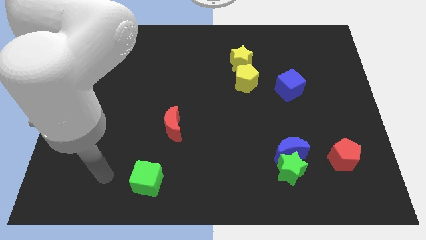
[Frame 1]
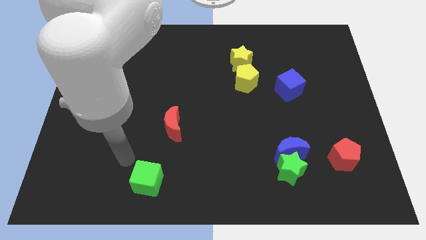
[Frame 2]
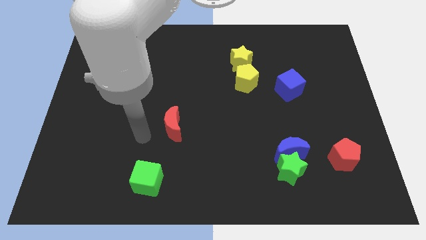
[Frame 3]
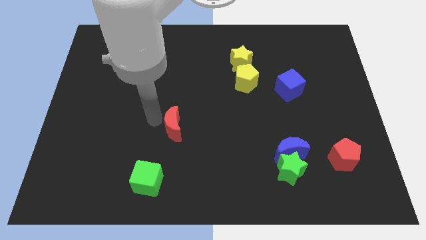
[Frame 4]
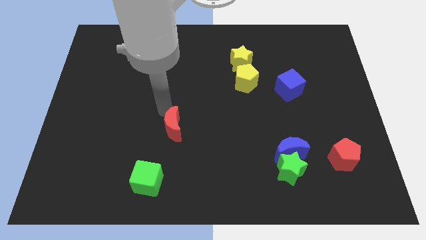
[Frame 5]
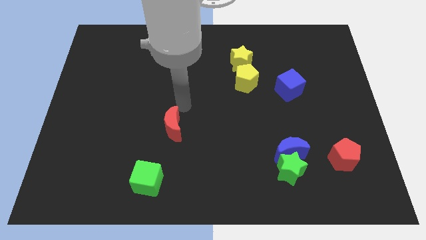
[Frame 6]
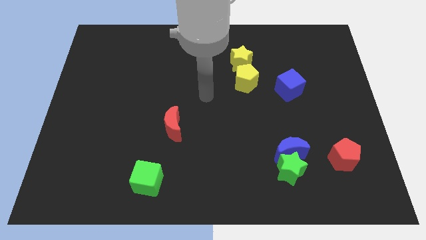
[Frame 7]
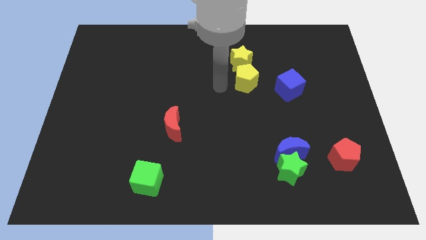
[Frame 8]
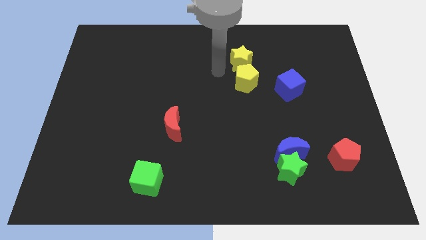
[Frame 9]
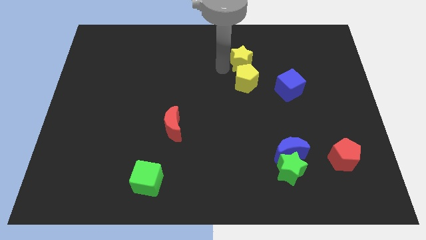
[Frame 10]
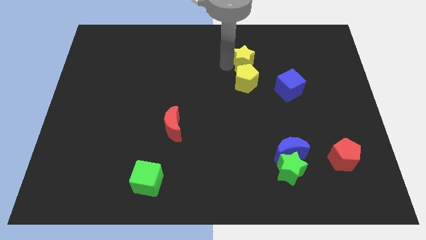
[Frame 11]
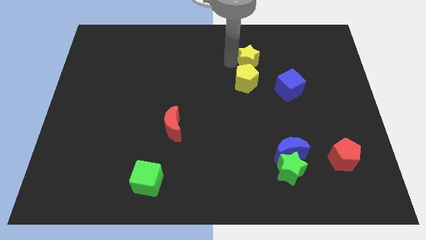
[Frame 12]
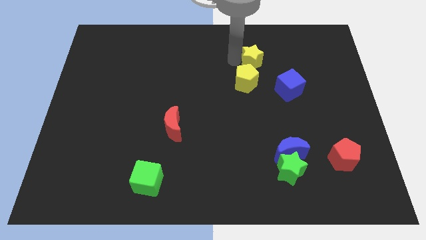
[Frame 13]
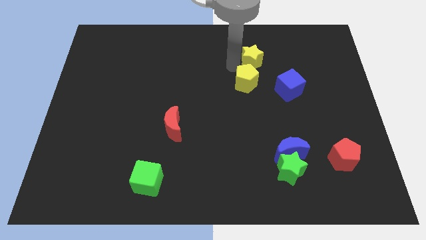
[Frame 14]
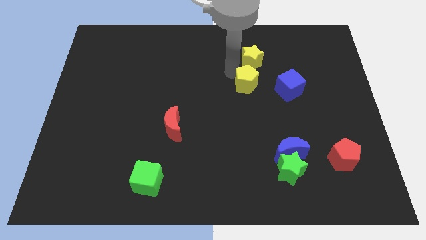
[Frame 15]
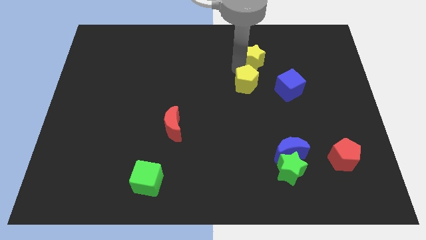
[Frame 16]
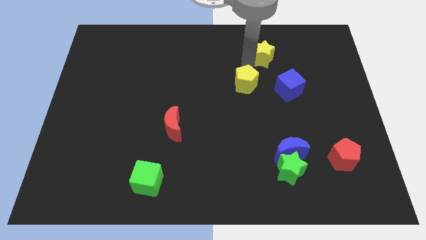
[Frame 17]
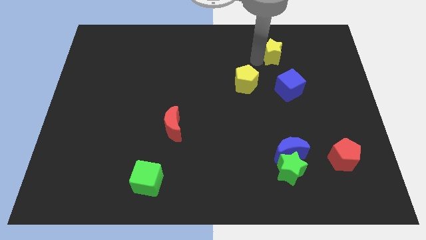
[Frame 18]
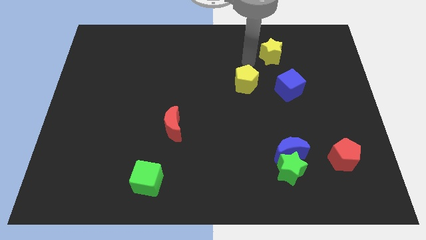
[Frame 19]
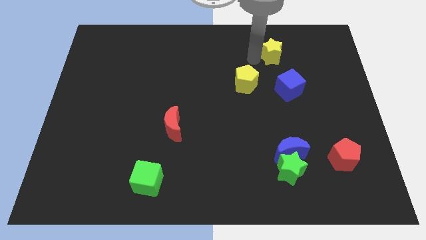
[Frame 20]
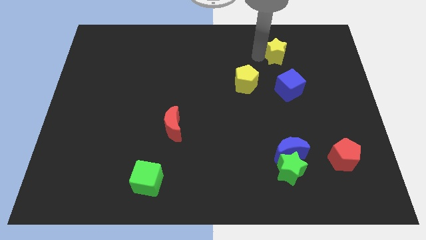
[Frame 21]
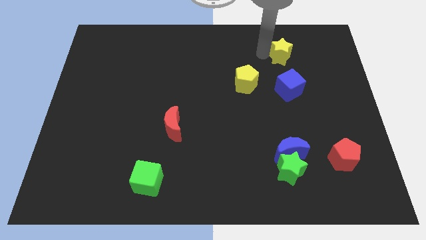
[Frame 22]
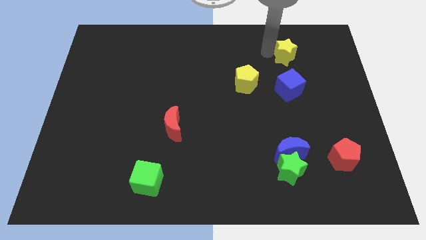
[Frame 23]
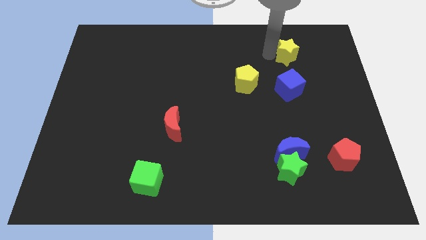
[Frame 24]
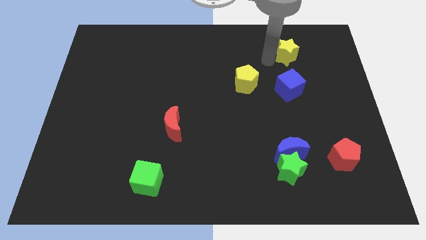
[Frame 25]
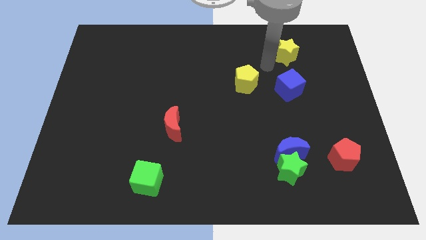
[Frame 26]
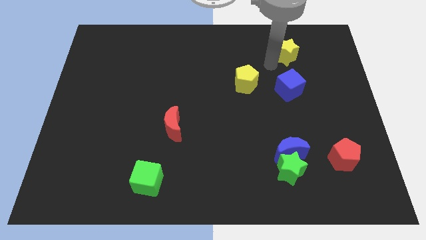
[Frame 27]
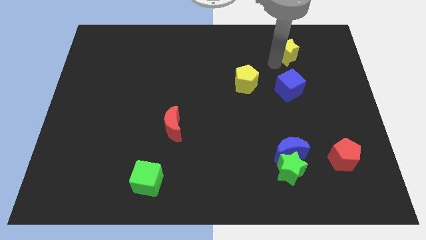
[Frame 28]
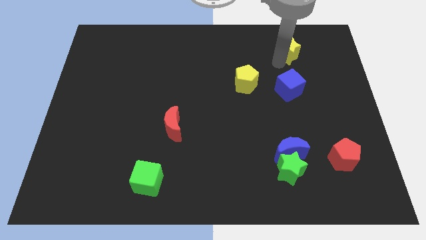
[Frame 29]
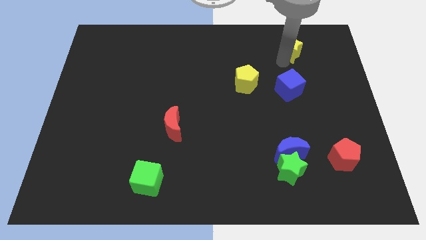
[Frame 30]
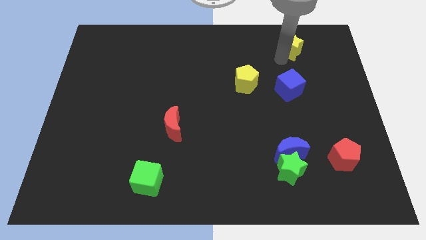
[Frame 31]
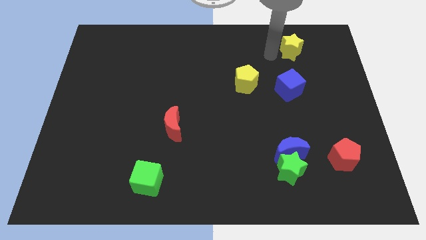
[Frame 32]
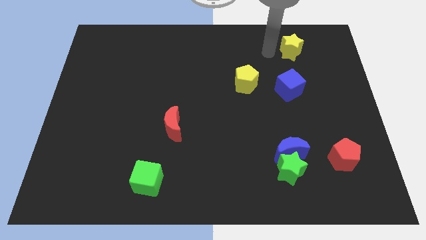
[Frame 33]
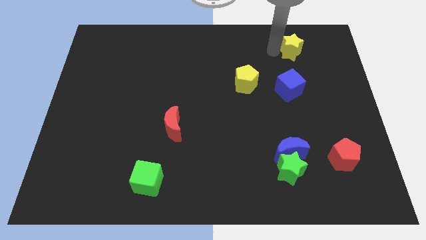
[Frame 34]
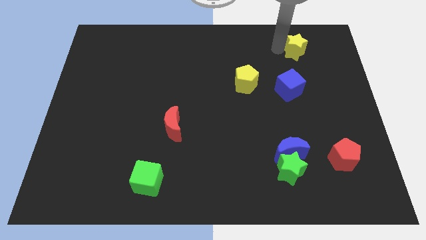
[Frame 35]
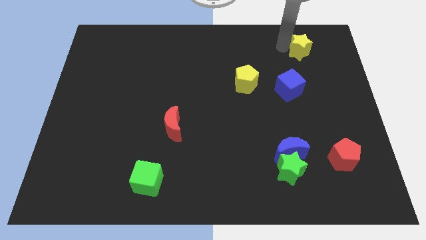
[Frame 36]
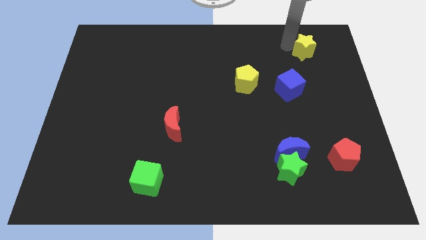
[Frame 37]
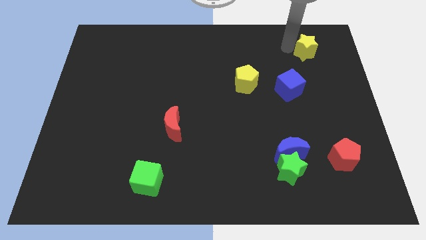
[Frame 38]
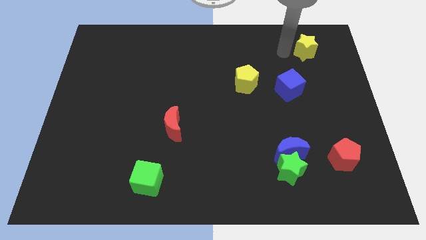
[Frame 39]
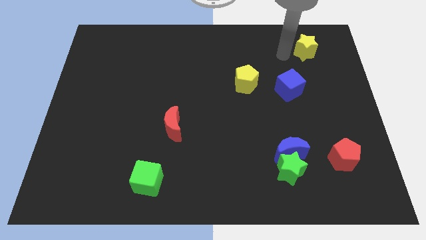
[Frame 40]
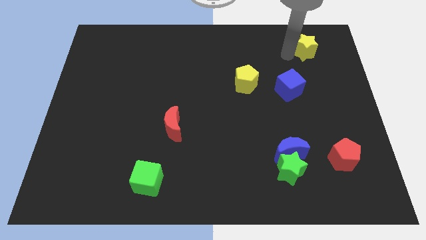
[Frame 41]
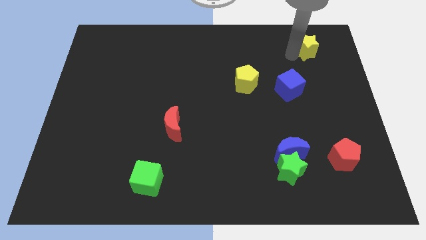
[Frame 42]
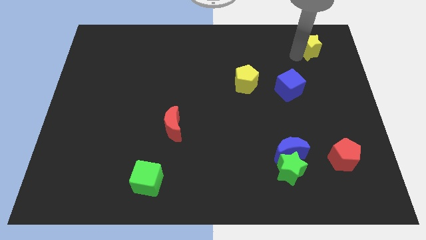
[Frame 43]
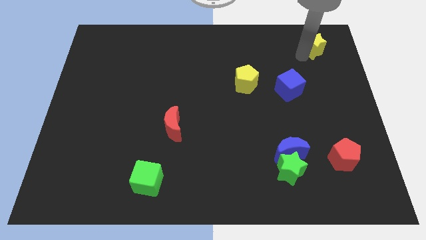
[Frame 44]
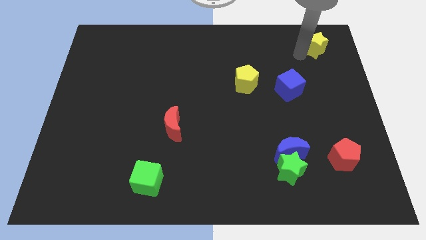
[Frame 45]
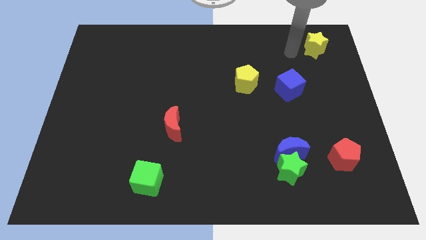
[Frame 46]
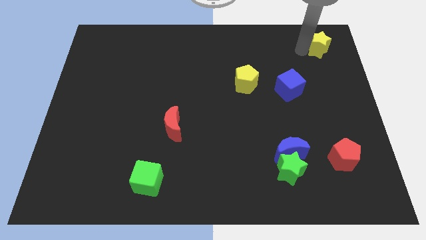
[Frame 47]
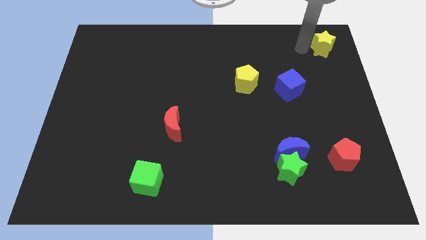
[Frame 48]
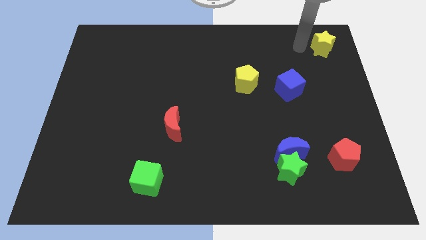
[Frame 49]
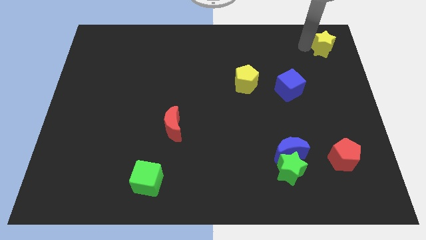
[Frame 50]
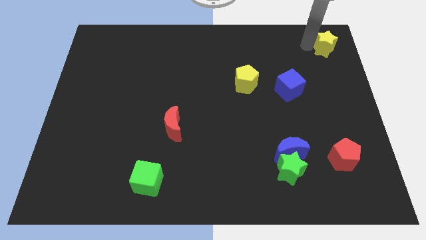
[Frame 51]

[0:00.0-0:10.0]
slide the yellow star to the top right of the board

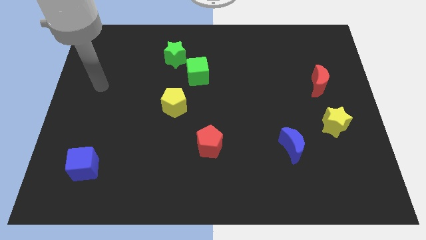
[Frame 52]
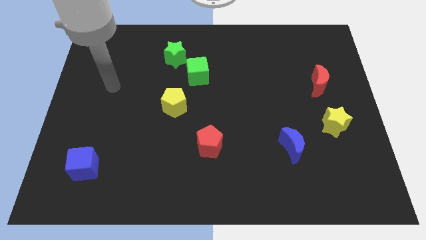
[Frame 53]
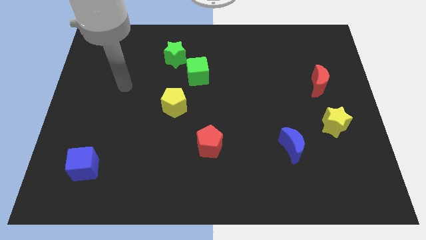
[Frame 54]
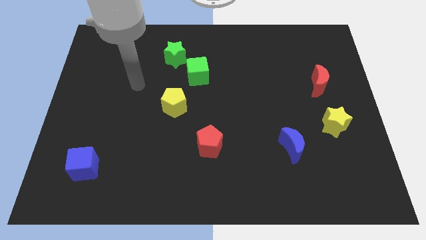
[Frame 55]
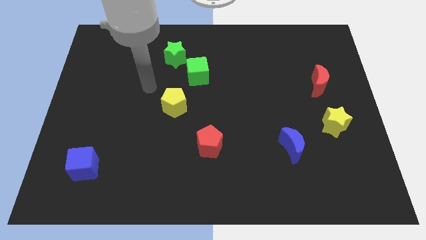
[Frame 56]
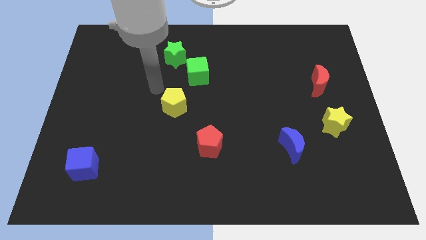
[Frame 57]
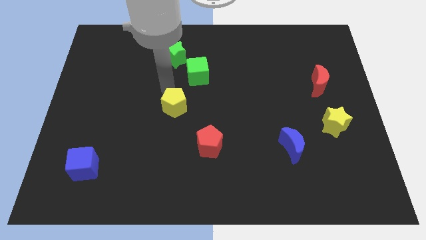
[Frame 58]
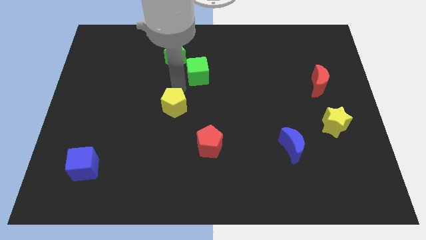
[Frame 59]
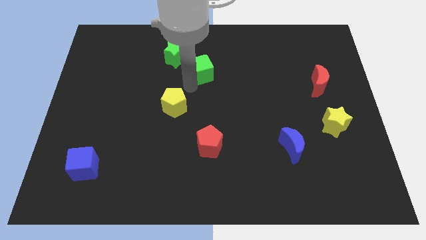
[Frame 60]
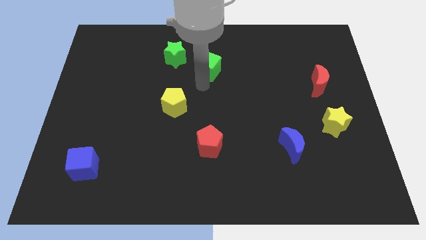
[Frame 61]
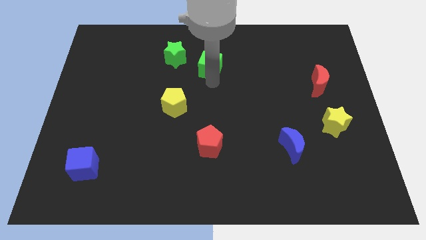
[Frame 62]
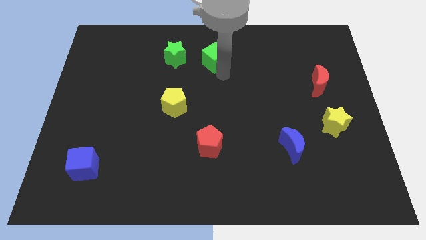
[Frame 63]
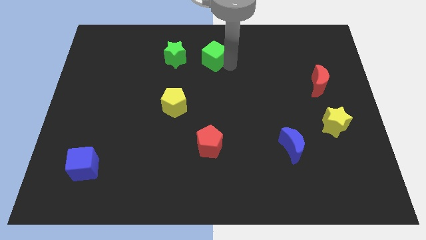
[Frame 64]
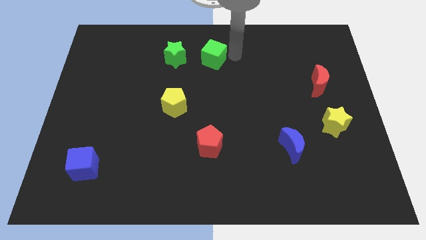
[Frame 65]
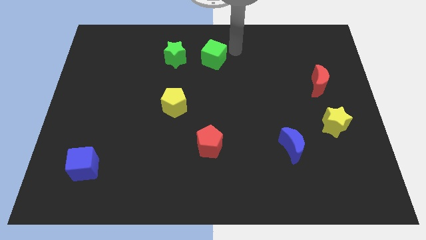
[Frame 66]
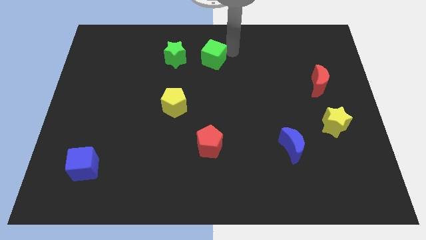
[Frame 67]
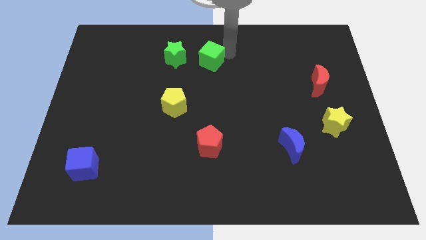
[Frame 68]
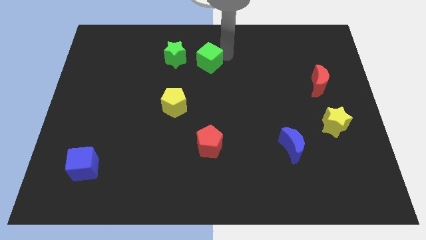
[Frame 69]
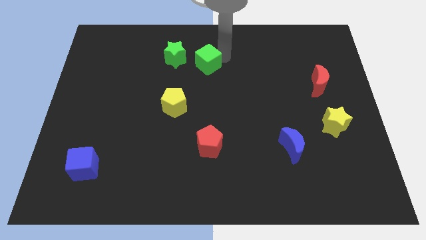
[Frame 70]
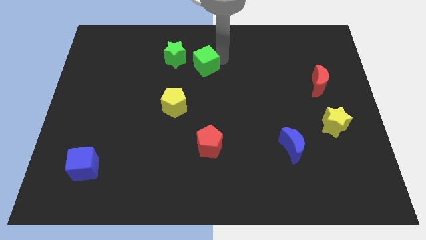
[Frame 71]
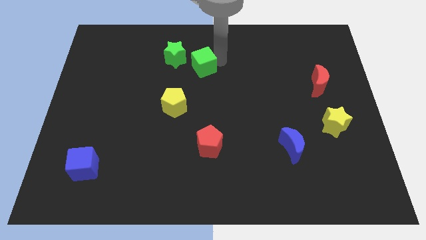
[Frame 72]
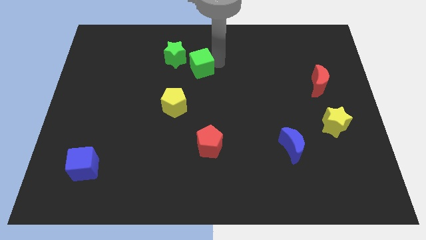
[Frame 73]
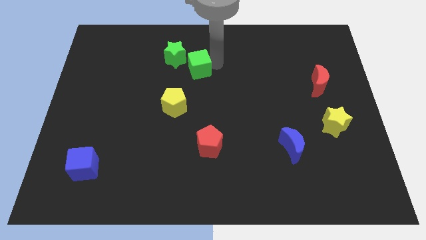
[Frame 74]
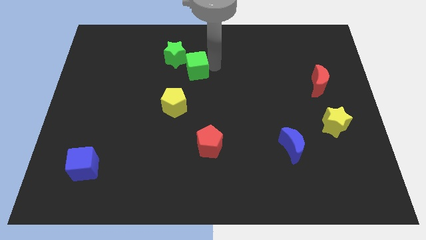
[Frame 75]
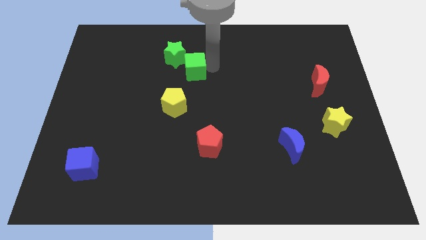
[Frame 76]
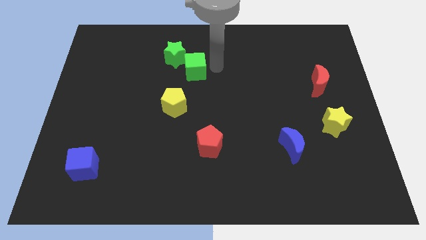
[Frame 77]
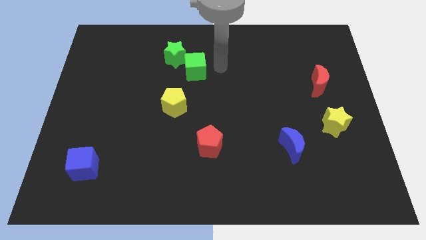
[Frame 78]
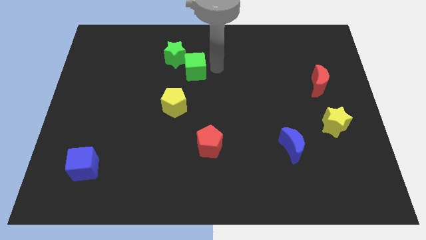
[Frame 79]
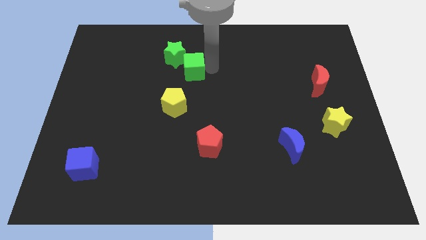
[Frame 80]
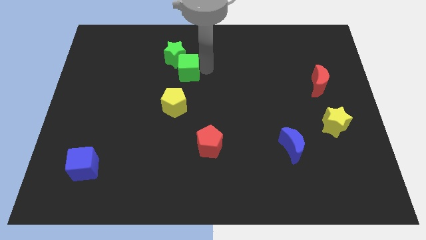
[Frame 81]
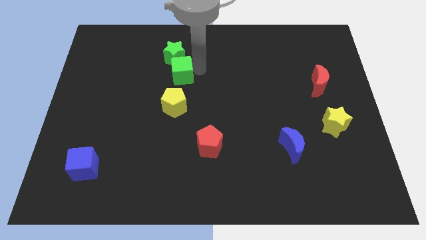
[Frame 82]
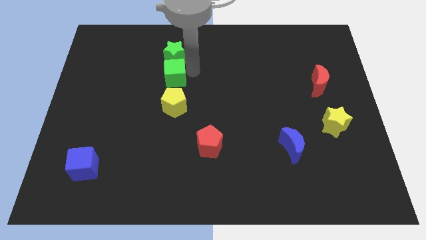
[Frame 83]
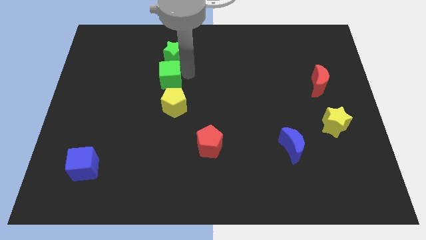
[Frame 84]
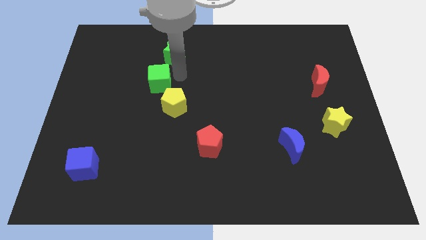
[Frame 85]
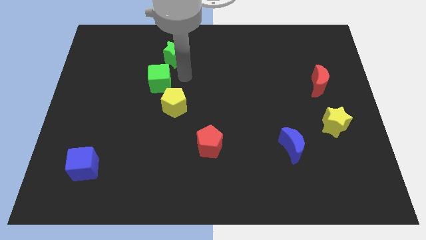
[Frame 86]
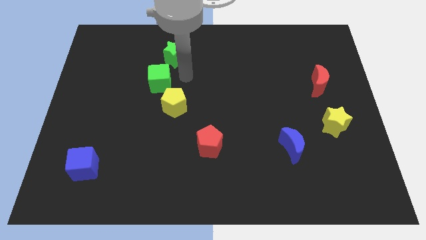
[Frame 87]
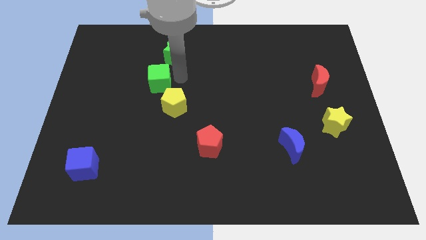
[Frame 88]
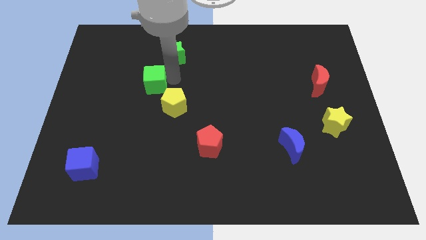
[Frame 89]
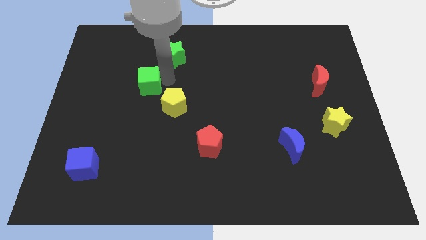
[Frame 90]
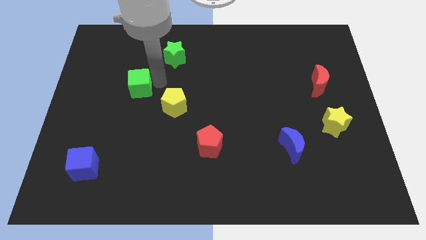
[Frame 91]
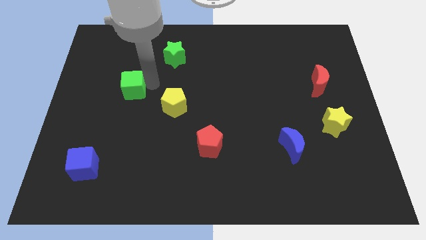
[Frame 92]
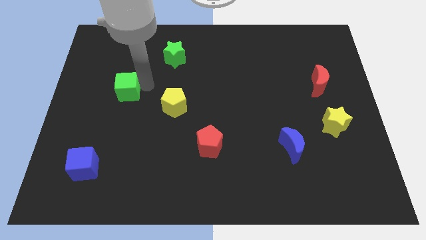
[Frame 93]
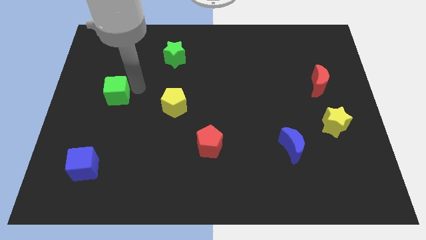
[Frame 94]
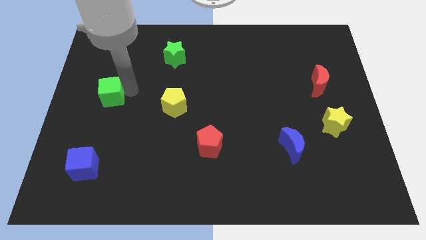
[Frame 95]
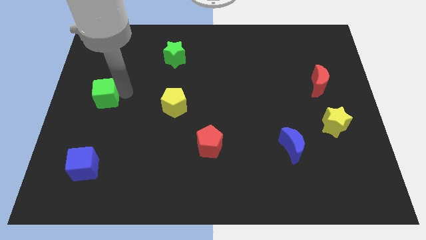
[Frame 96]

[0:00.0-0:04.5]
move the green cube to the left side
